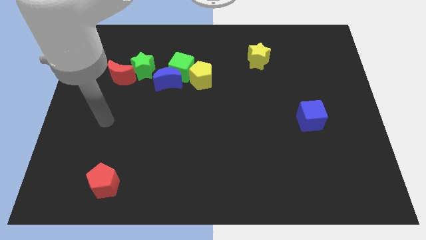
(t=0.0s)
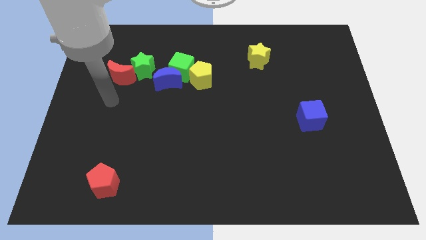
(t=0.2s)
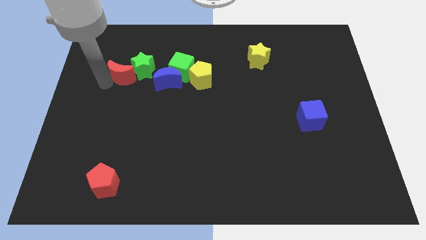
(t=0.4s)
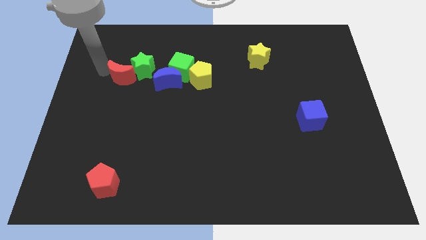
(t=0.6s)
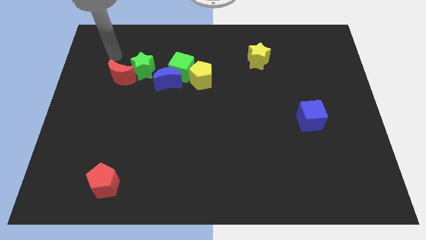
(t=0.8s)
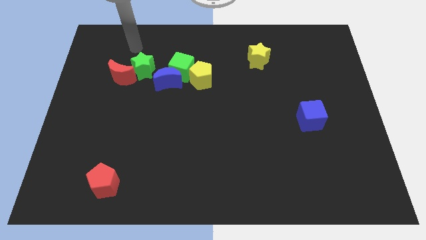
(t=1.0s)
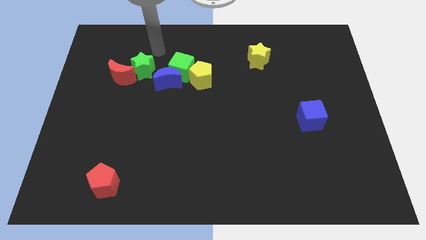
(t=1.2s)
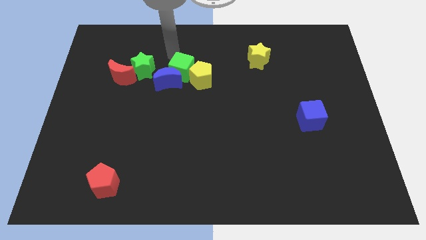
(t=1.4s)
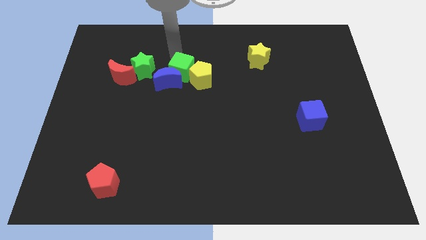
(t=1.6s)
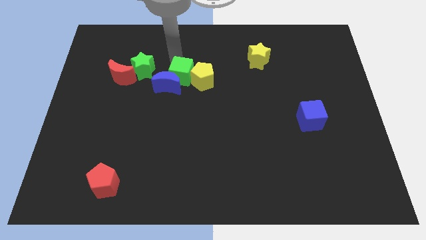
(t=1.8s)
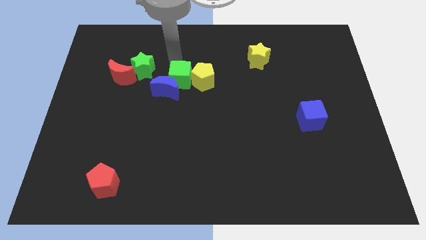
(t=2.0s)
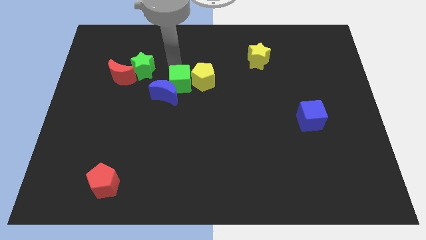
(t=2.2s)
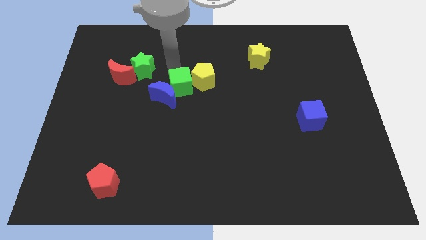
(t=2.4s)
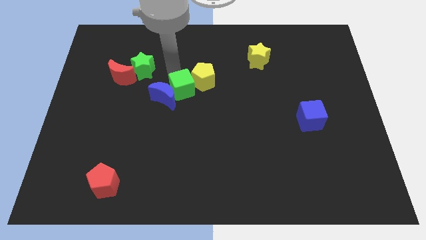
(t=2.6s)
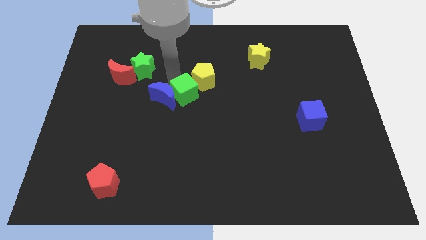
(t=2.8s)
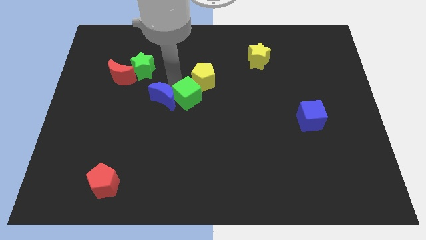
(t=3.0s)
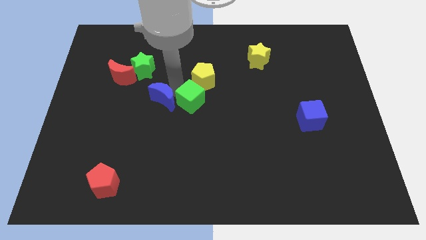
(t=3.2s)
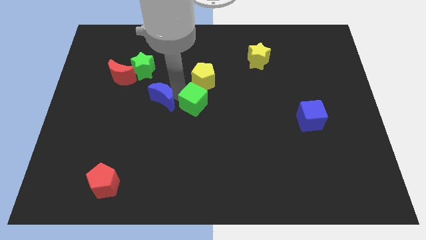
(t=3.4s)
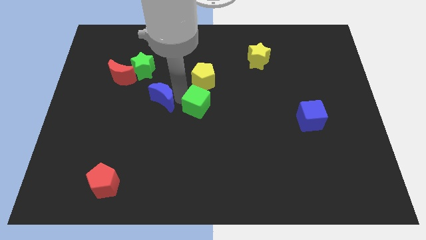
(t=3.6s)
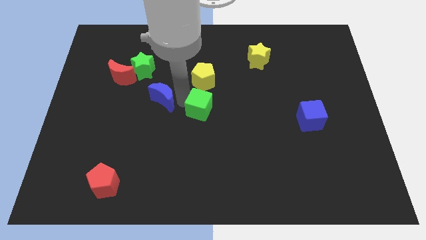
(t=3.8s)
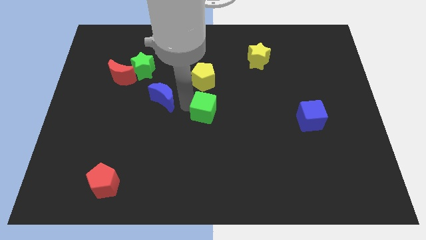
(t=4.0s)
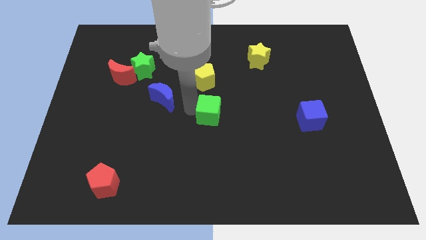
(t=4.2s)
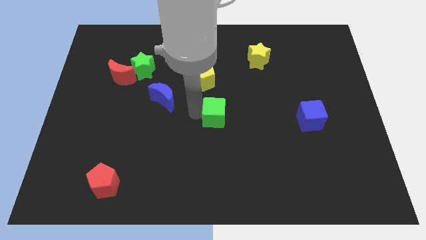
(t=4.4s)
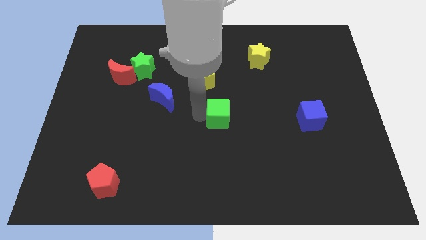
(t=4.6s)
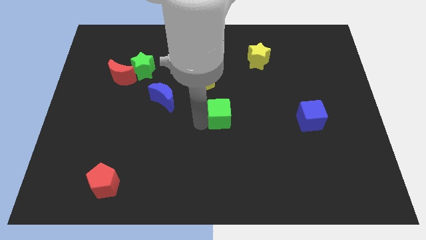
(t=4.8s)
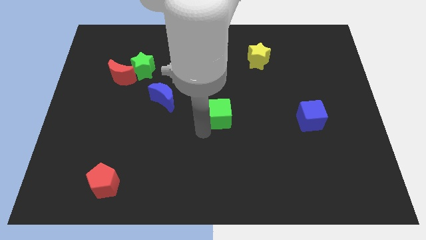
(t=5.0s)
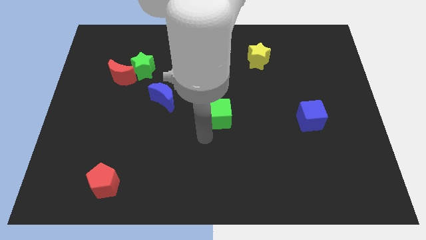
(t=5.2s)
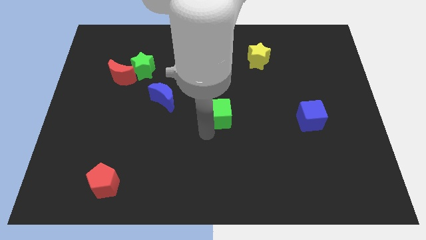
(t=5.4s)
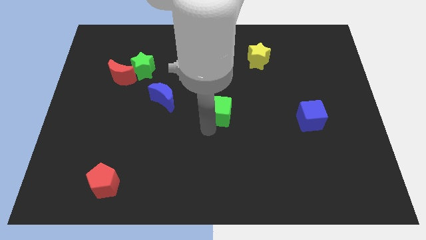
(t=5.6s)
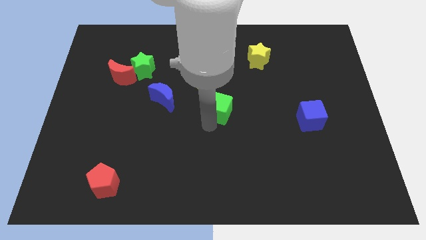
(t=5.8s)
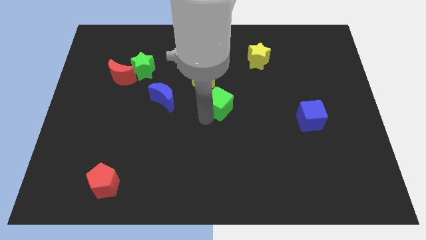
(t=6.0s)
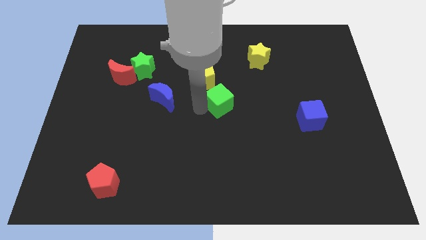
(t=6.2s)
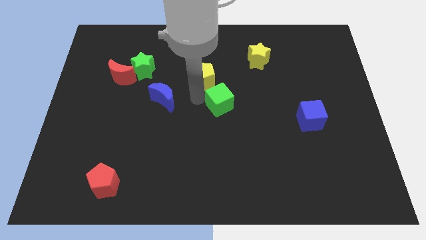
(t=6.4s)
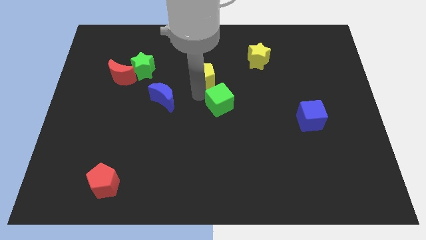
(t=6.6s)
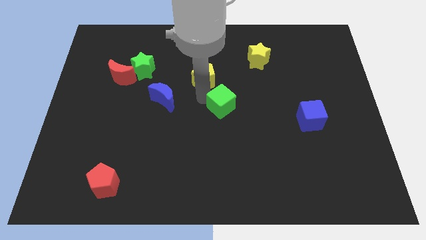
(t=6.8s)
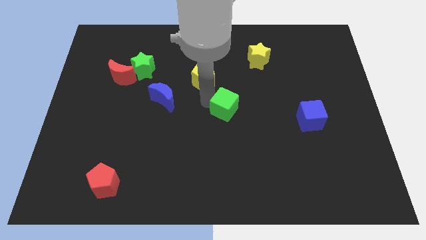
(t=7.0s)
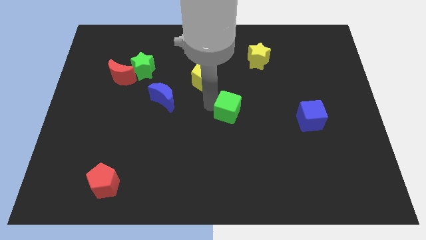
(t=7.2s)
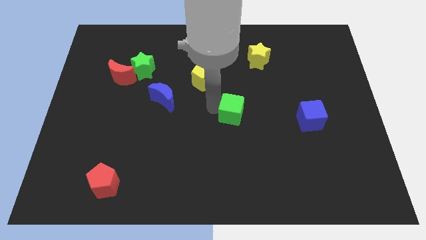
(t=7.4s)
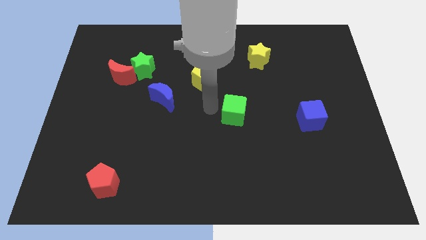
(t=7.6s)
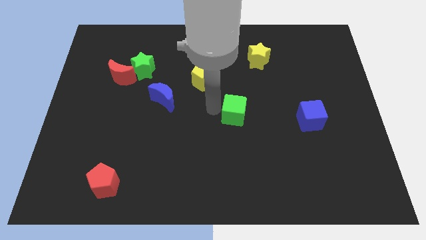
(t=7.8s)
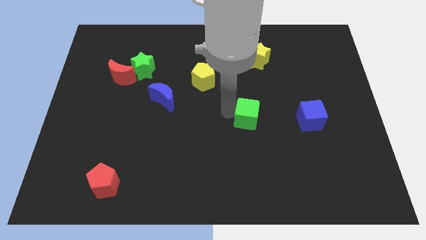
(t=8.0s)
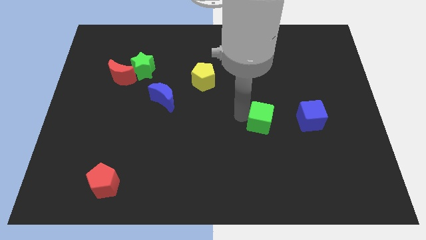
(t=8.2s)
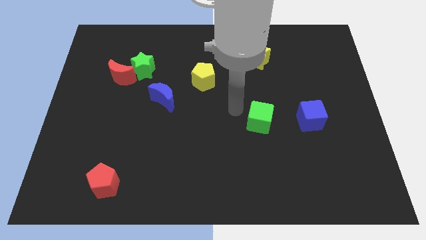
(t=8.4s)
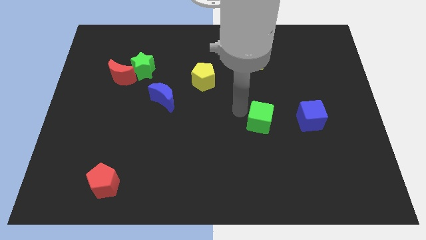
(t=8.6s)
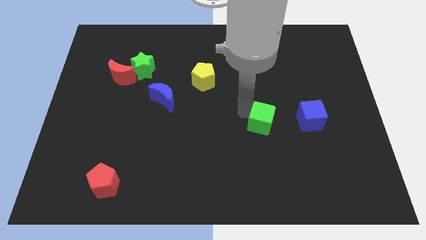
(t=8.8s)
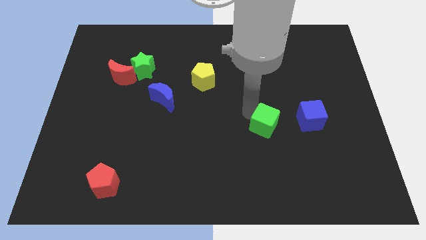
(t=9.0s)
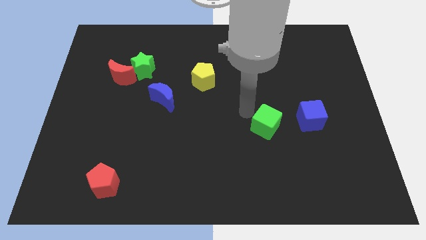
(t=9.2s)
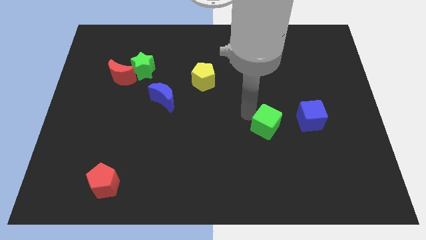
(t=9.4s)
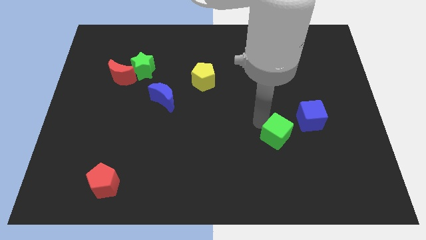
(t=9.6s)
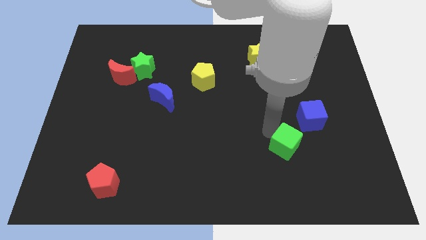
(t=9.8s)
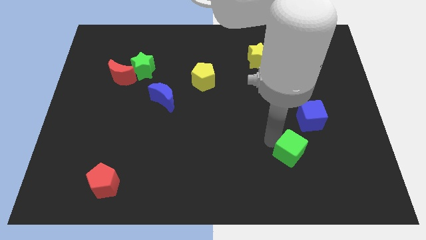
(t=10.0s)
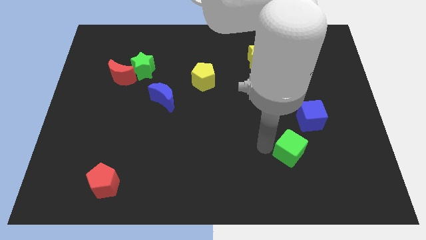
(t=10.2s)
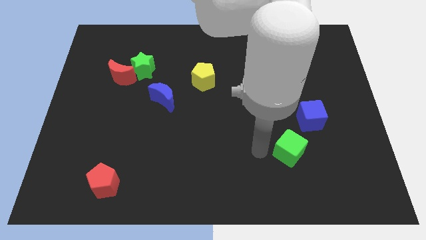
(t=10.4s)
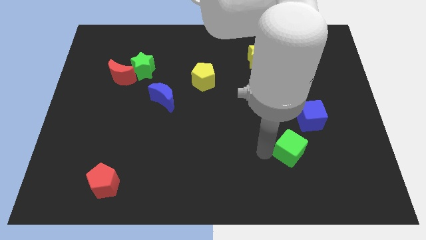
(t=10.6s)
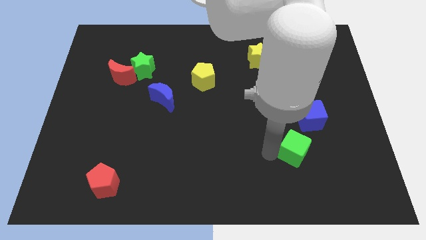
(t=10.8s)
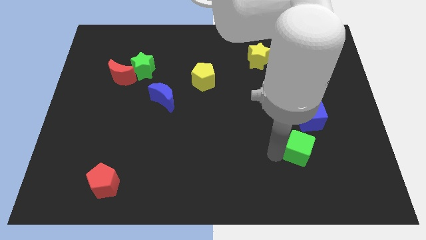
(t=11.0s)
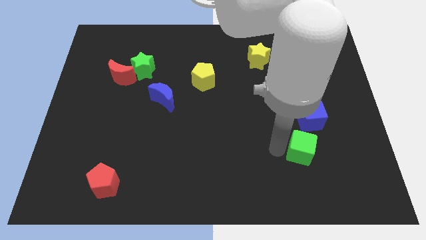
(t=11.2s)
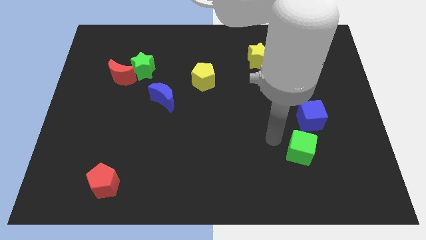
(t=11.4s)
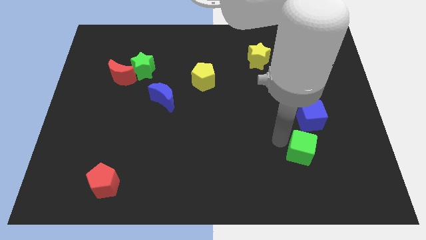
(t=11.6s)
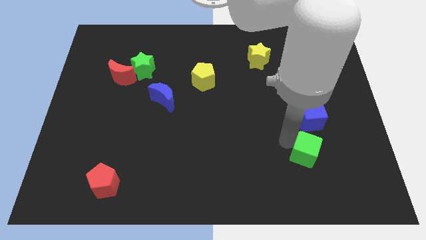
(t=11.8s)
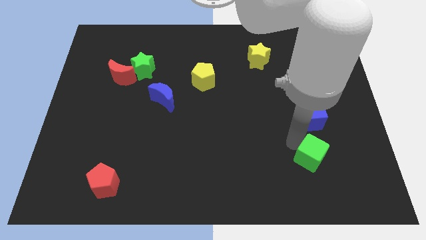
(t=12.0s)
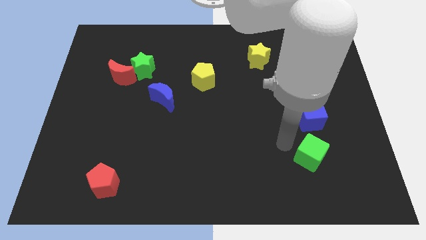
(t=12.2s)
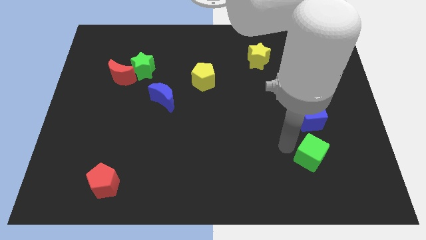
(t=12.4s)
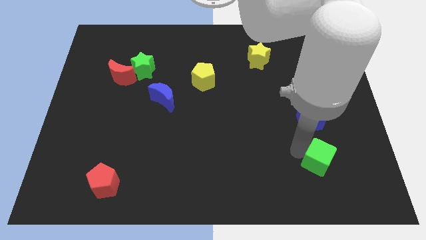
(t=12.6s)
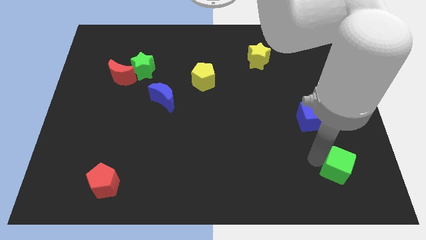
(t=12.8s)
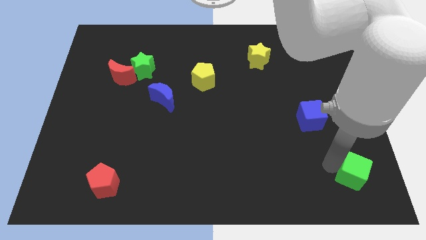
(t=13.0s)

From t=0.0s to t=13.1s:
slide the green cube to the bottom right of the board
